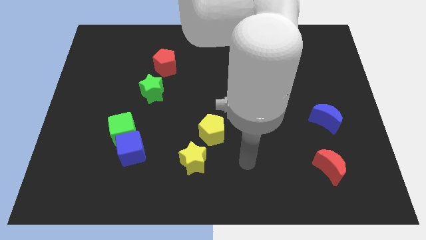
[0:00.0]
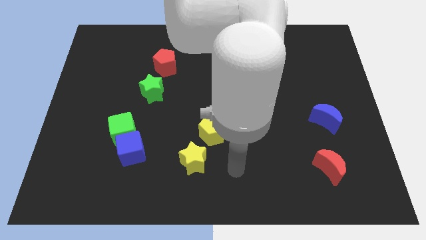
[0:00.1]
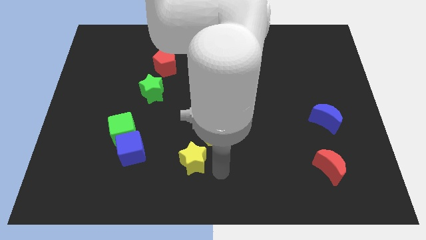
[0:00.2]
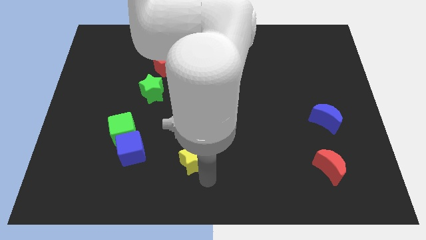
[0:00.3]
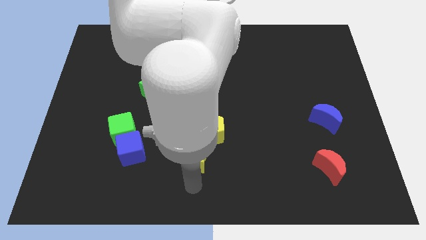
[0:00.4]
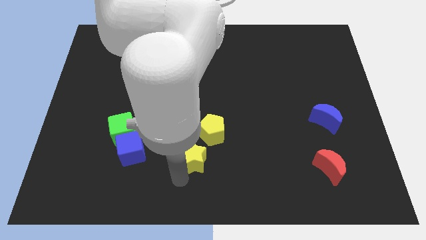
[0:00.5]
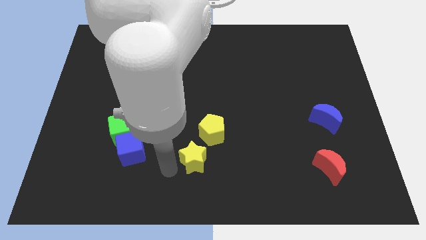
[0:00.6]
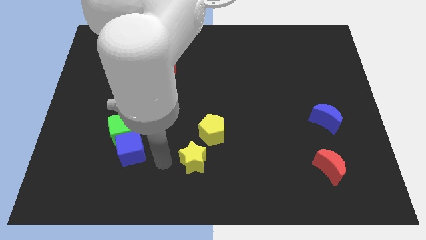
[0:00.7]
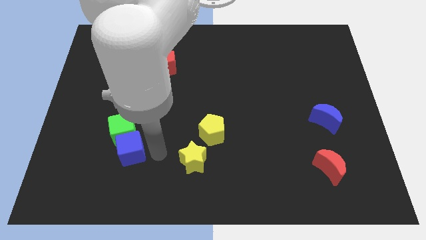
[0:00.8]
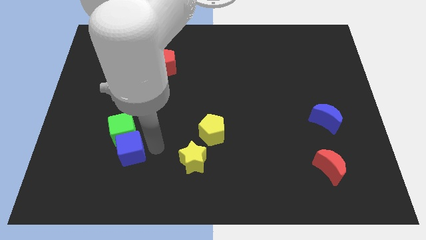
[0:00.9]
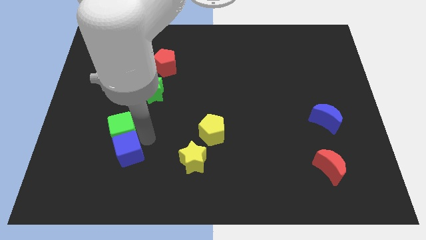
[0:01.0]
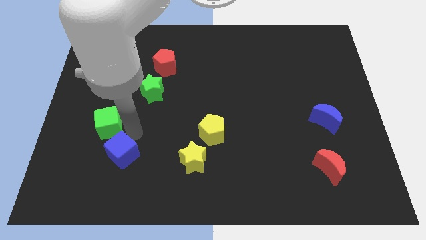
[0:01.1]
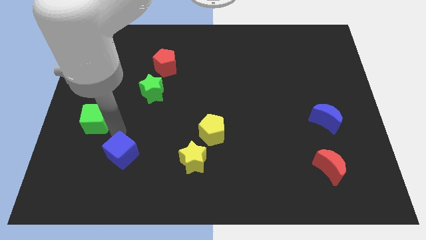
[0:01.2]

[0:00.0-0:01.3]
separate the blue cube from the green cube

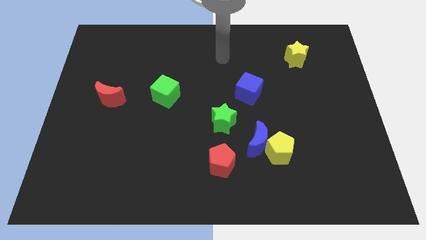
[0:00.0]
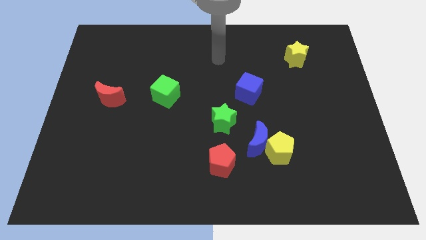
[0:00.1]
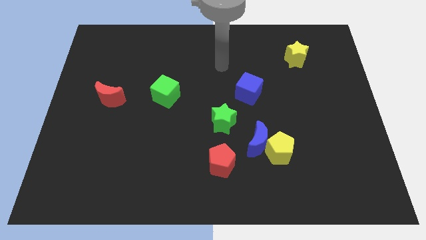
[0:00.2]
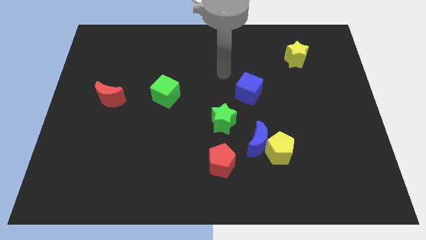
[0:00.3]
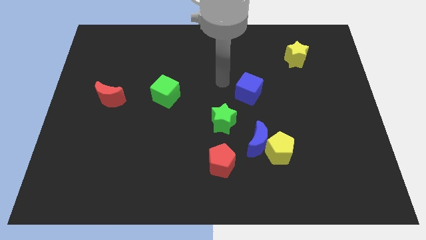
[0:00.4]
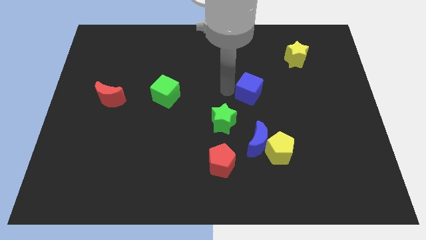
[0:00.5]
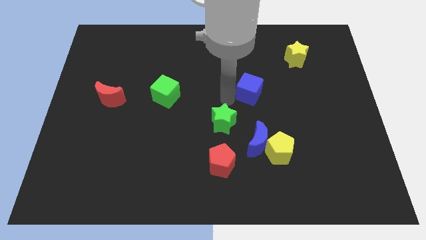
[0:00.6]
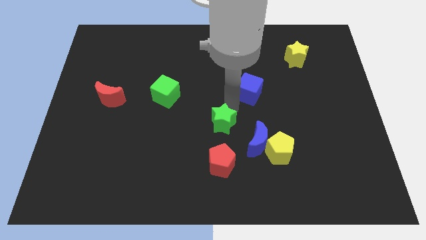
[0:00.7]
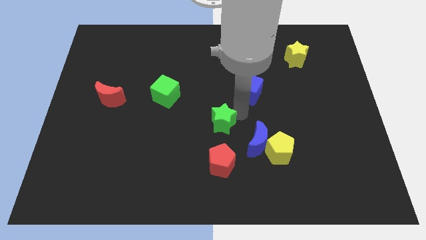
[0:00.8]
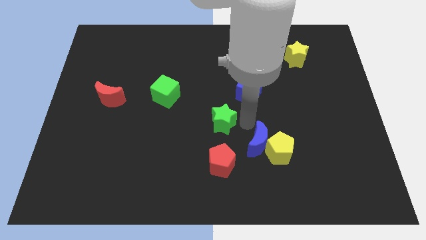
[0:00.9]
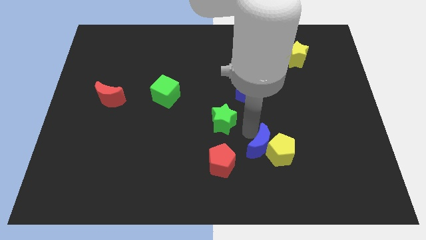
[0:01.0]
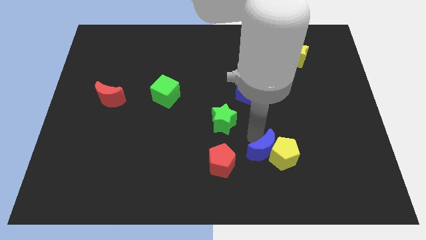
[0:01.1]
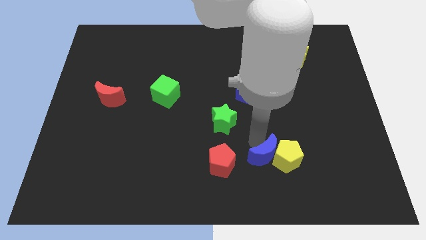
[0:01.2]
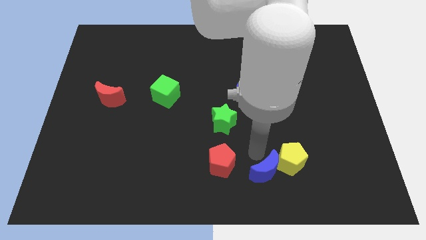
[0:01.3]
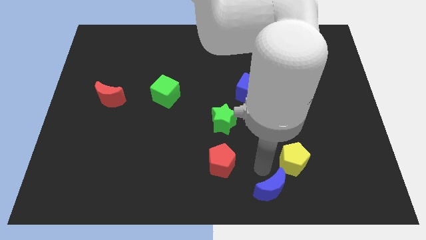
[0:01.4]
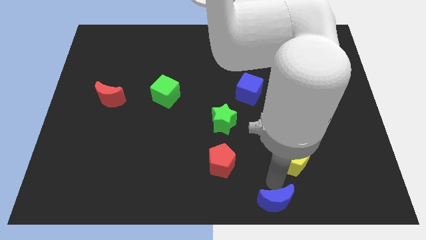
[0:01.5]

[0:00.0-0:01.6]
move the yellow pentagon away from the blue moon

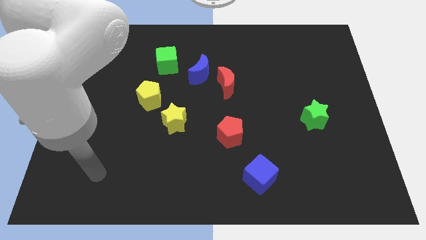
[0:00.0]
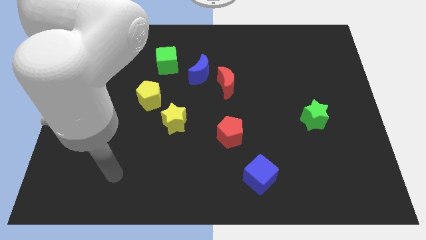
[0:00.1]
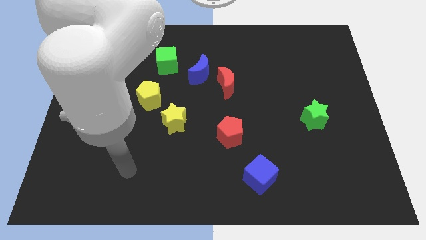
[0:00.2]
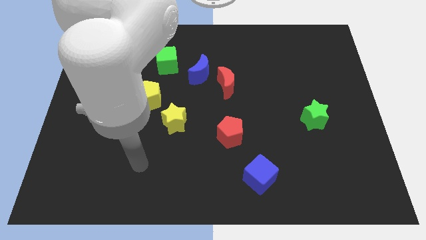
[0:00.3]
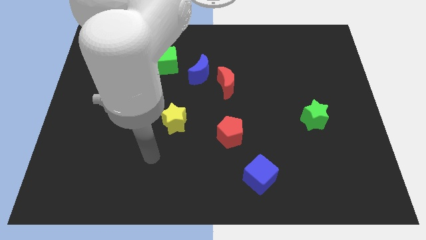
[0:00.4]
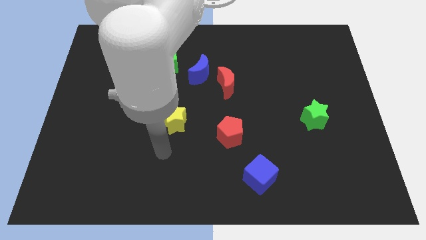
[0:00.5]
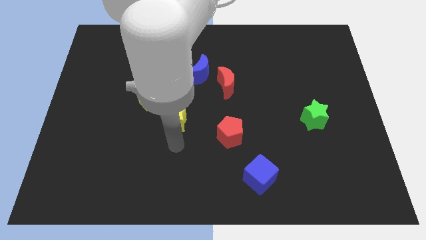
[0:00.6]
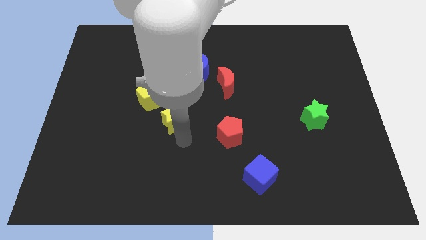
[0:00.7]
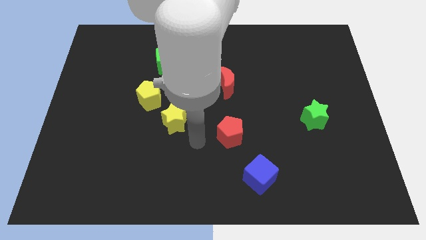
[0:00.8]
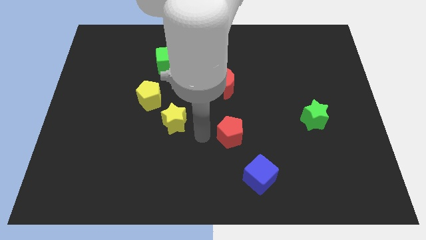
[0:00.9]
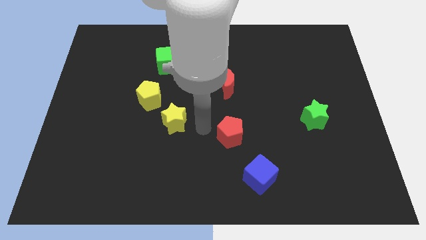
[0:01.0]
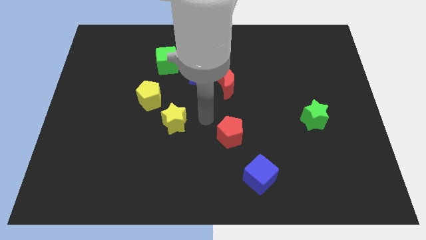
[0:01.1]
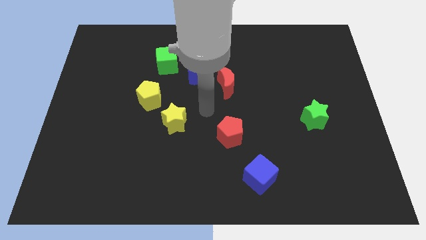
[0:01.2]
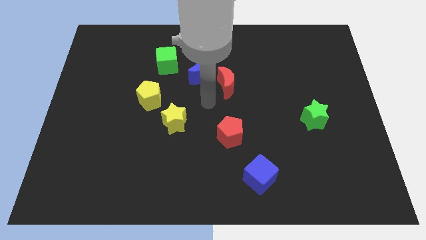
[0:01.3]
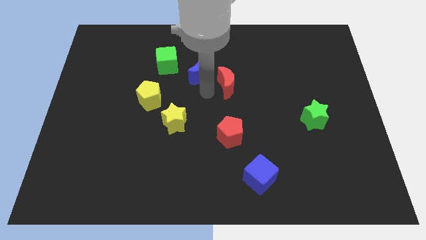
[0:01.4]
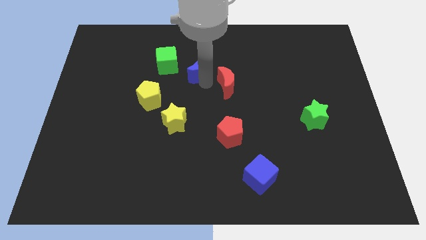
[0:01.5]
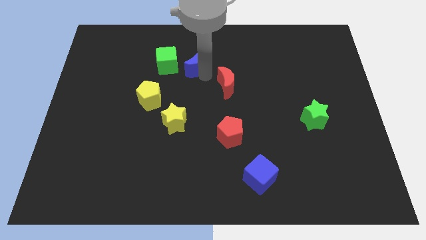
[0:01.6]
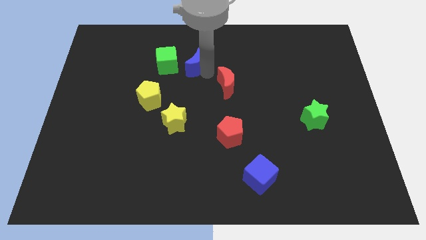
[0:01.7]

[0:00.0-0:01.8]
move the red moon away from the blue moon

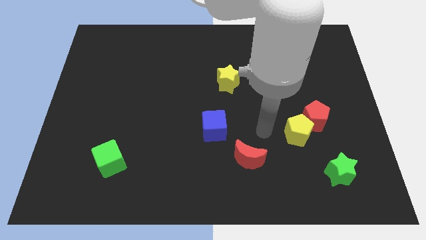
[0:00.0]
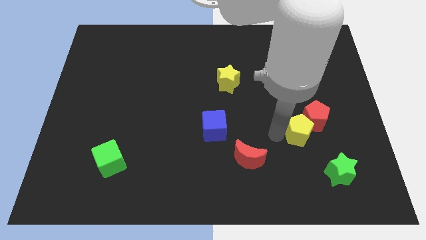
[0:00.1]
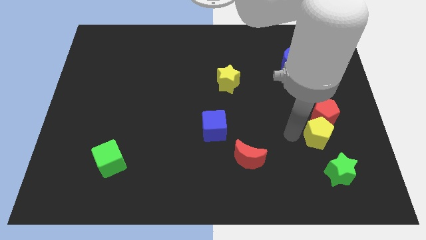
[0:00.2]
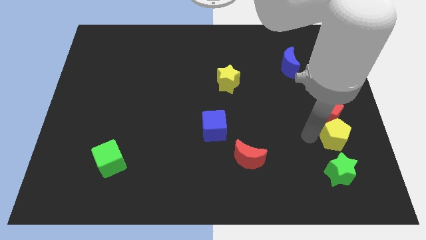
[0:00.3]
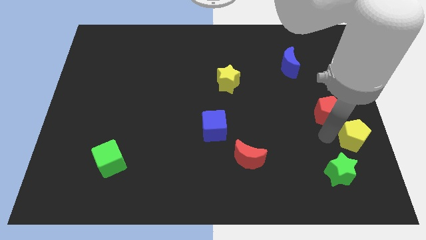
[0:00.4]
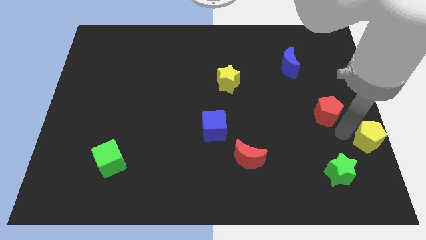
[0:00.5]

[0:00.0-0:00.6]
separate the red pentagon from the yellow pentagon

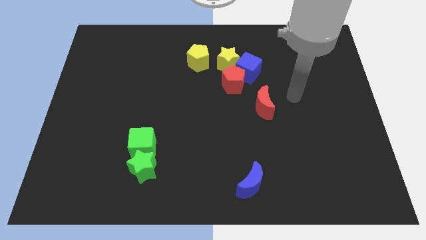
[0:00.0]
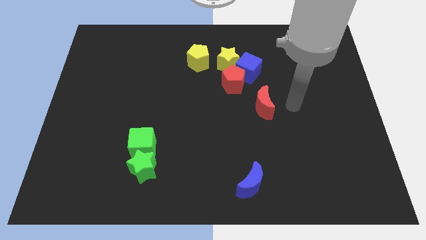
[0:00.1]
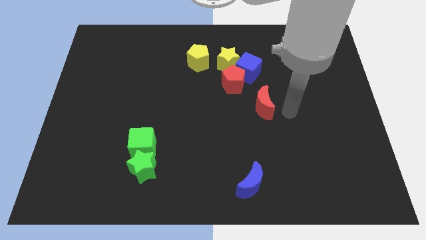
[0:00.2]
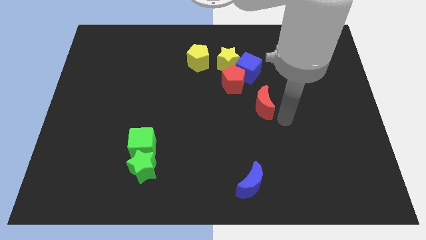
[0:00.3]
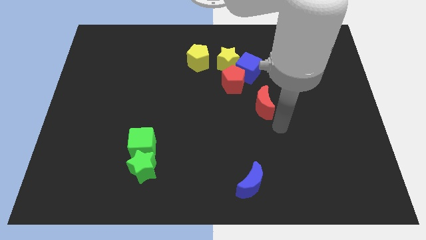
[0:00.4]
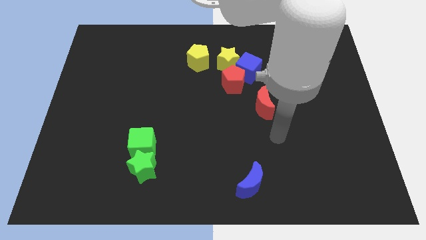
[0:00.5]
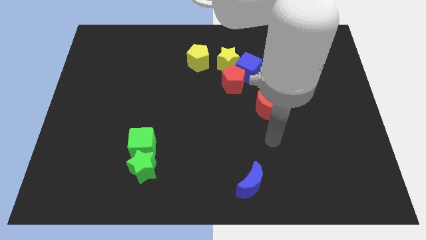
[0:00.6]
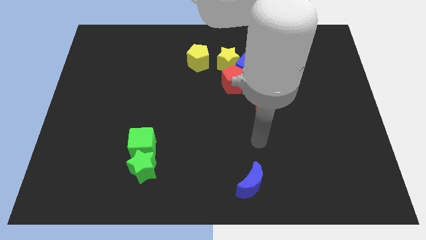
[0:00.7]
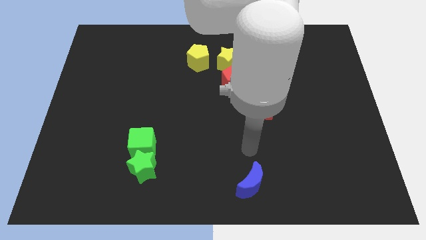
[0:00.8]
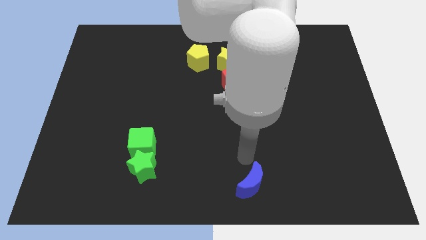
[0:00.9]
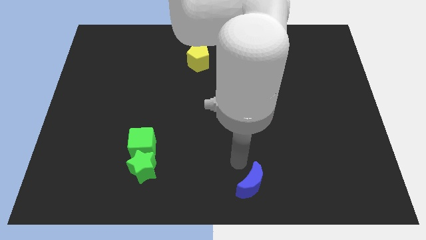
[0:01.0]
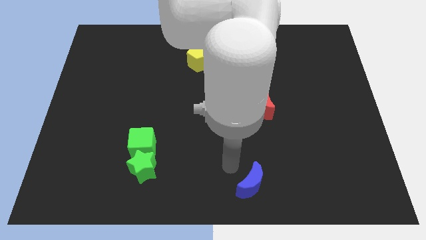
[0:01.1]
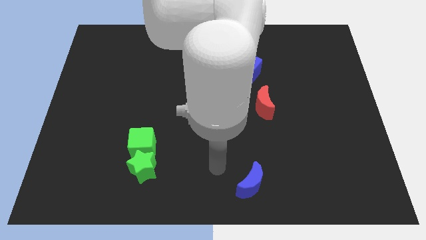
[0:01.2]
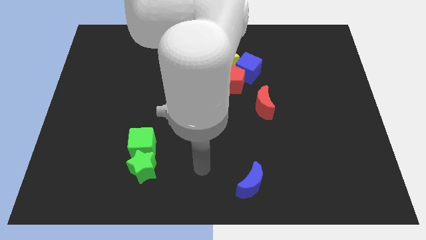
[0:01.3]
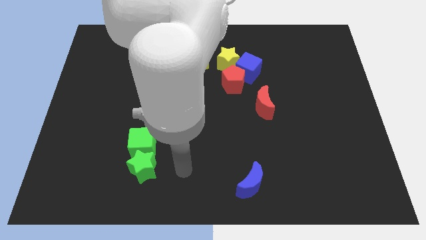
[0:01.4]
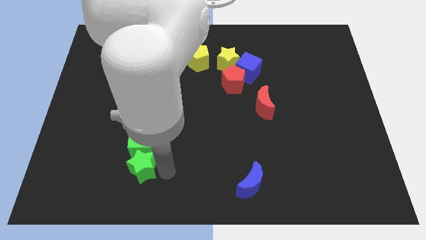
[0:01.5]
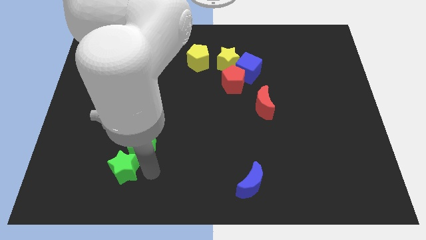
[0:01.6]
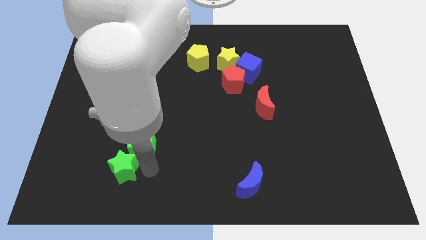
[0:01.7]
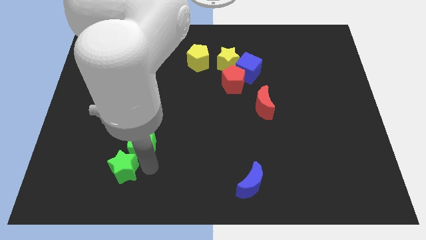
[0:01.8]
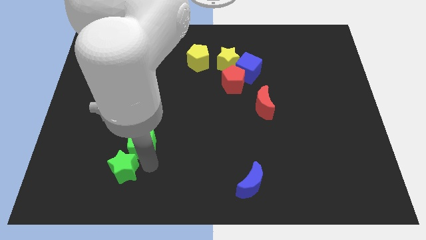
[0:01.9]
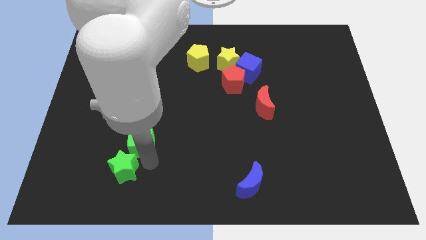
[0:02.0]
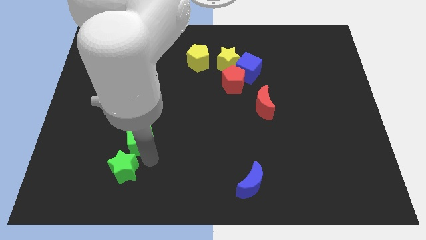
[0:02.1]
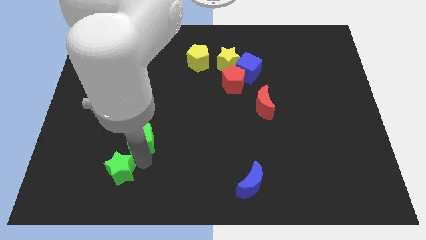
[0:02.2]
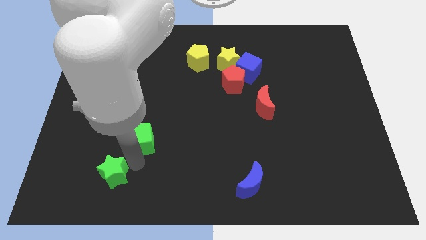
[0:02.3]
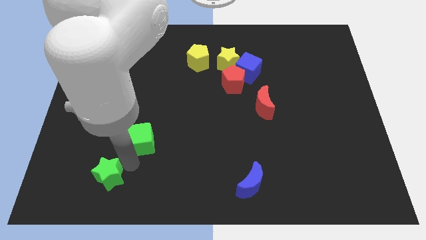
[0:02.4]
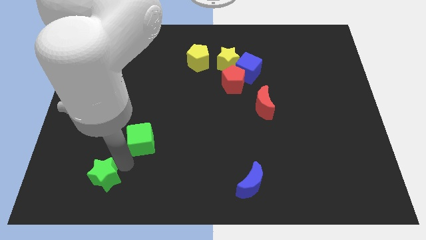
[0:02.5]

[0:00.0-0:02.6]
separate the green cube from the green star

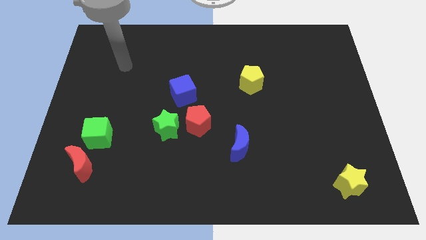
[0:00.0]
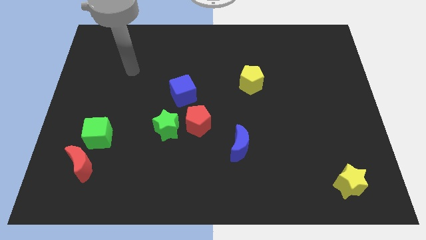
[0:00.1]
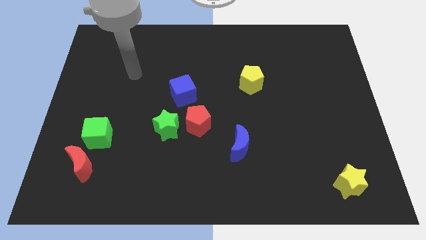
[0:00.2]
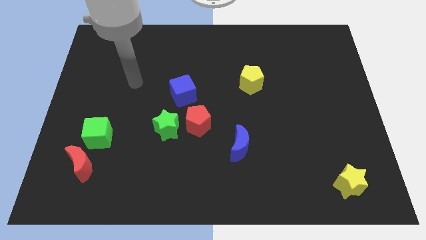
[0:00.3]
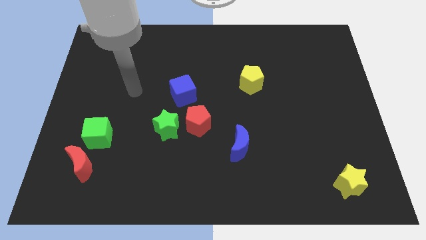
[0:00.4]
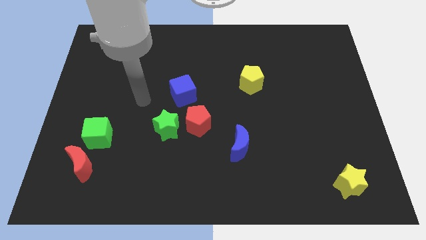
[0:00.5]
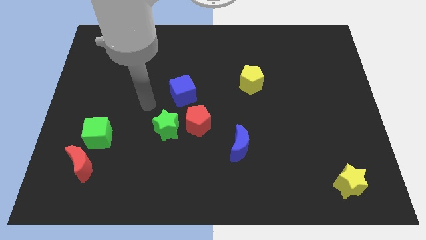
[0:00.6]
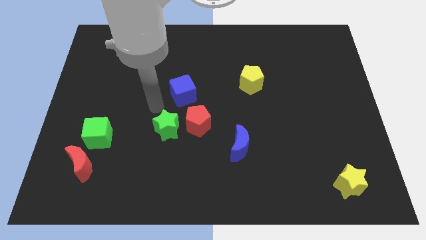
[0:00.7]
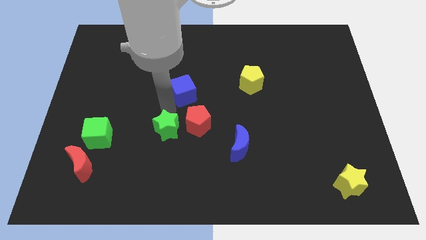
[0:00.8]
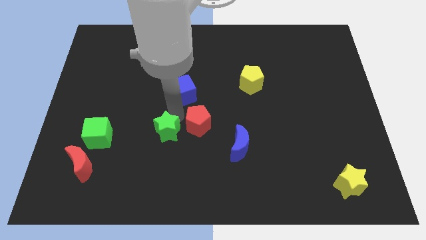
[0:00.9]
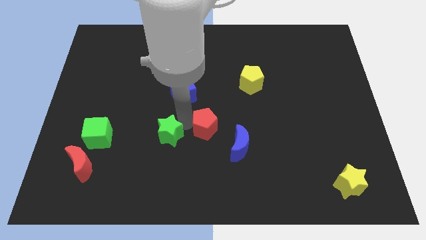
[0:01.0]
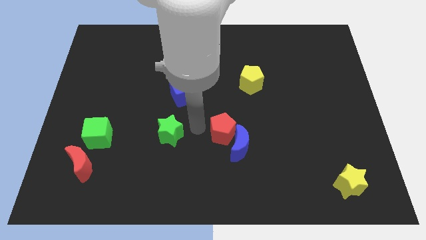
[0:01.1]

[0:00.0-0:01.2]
separate the green star from the red pentagon
